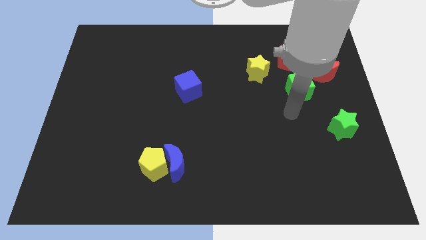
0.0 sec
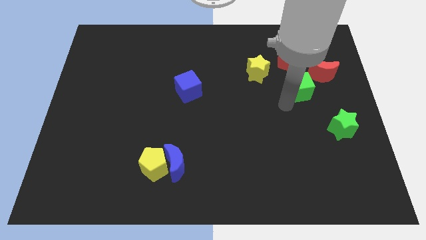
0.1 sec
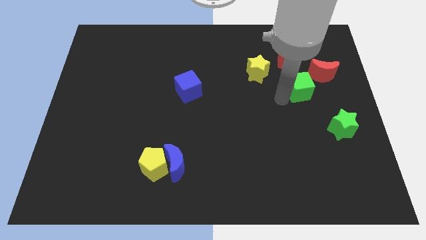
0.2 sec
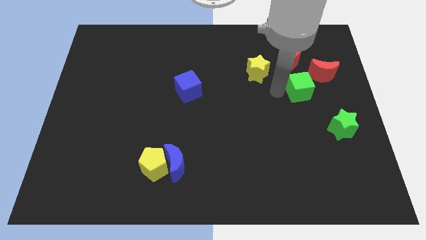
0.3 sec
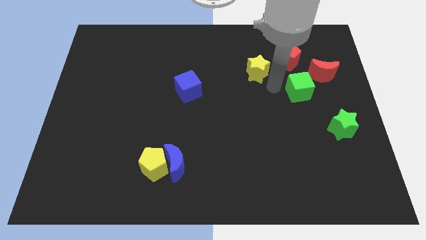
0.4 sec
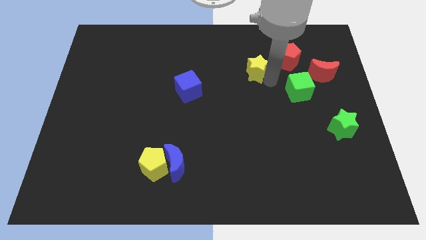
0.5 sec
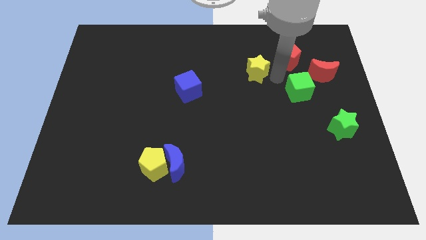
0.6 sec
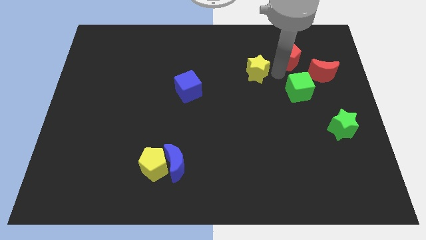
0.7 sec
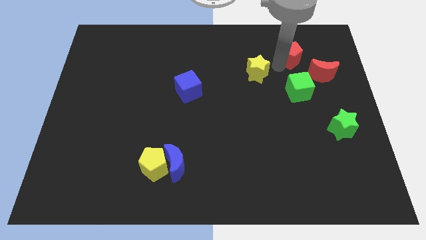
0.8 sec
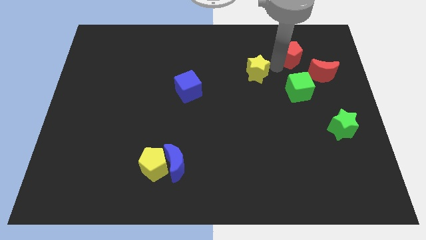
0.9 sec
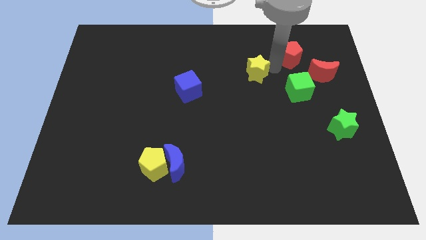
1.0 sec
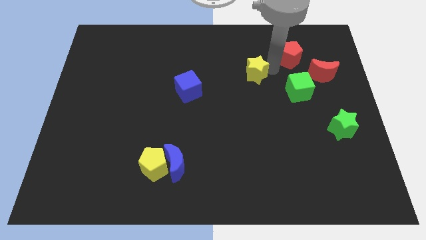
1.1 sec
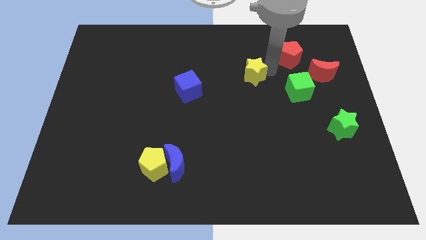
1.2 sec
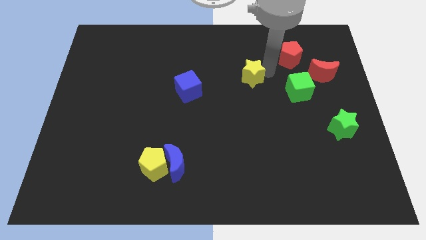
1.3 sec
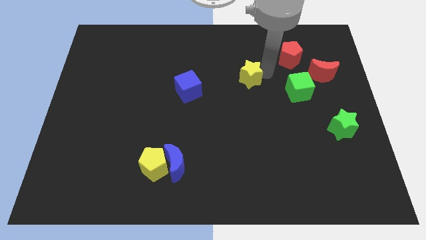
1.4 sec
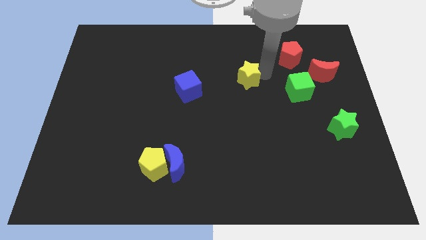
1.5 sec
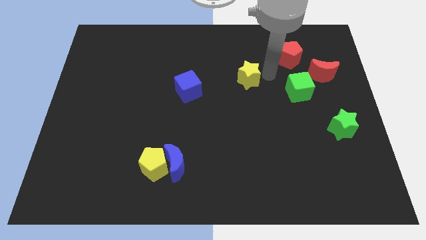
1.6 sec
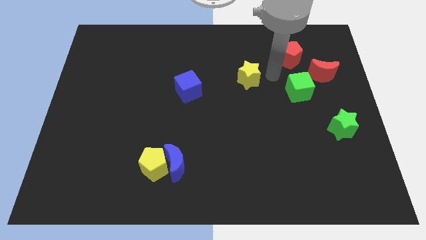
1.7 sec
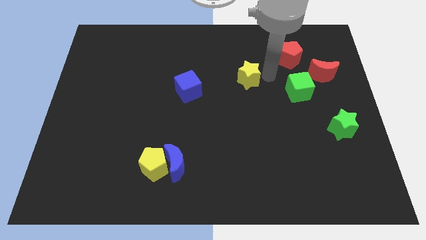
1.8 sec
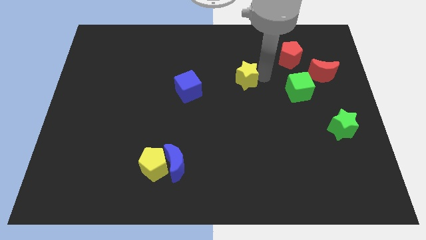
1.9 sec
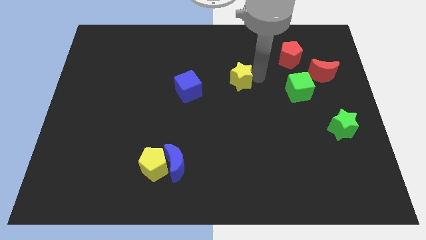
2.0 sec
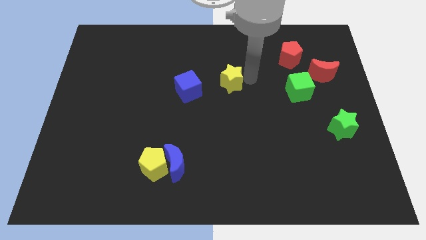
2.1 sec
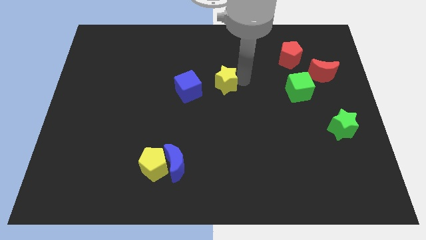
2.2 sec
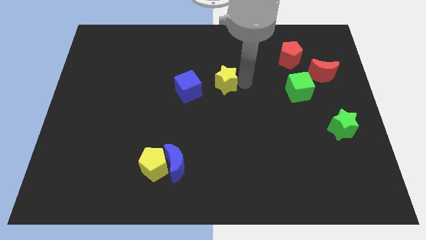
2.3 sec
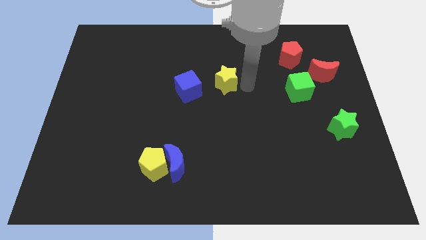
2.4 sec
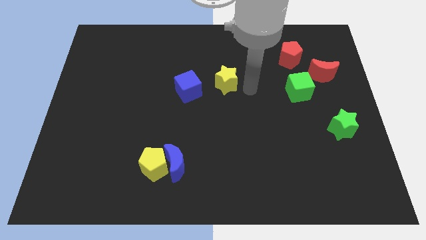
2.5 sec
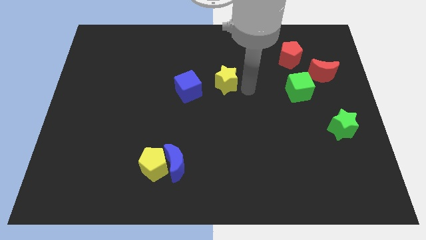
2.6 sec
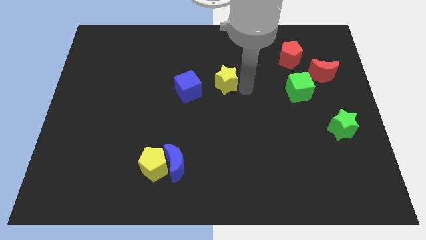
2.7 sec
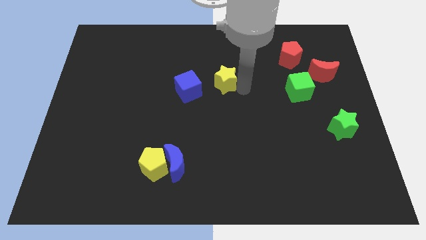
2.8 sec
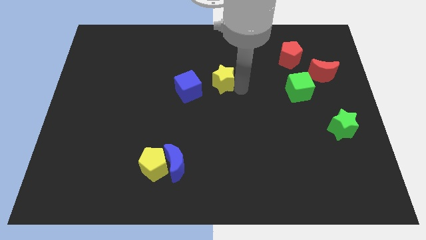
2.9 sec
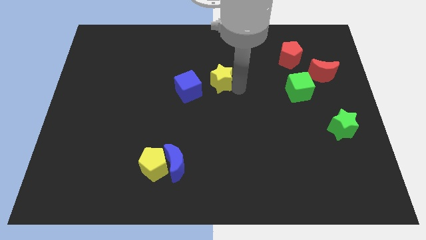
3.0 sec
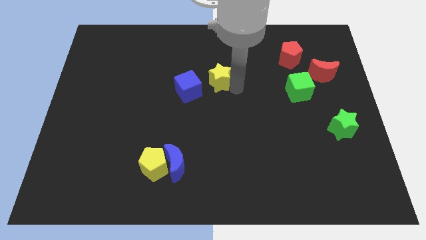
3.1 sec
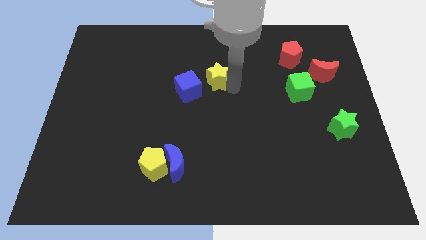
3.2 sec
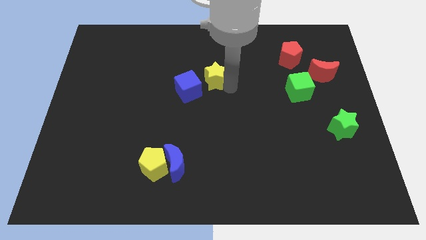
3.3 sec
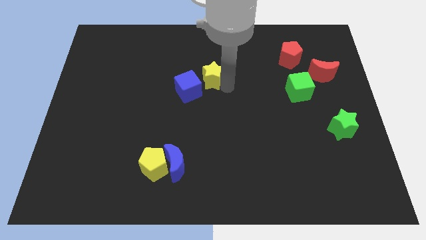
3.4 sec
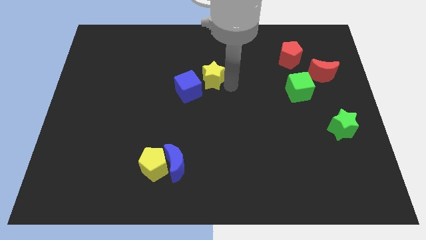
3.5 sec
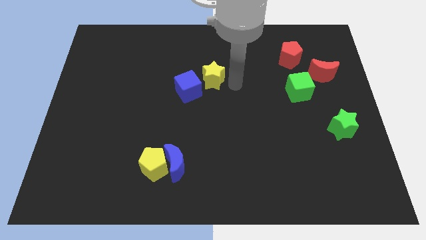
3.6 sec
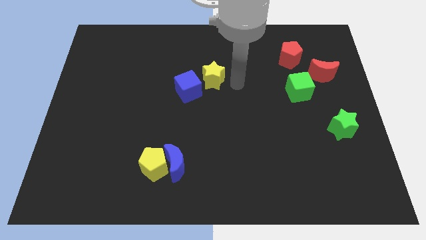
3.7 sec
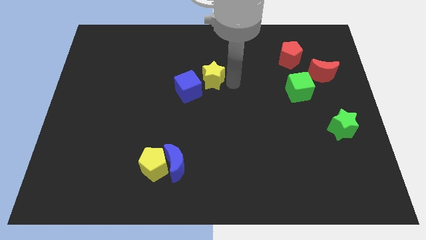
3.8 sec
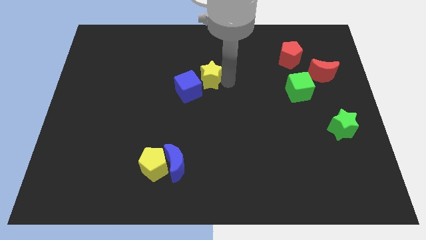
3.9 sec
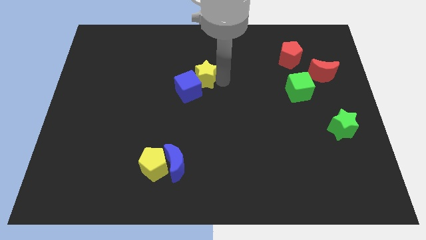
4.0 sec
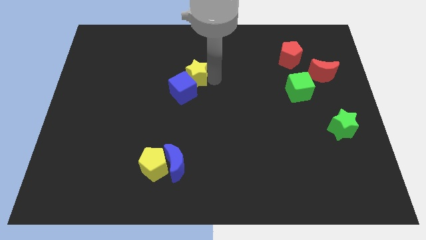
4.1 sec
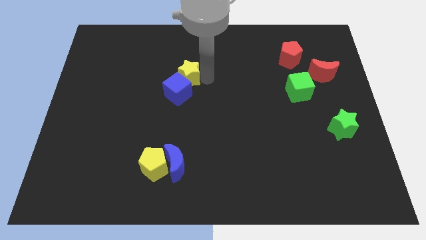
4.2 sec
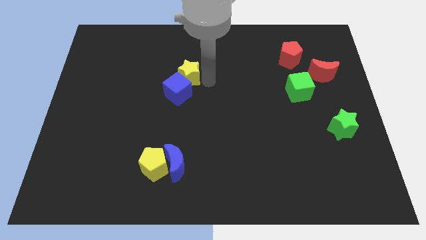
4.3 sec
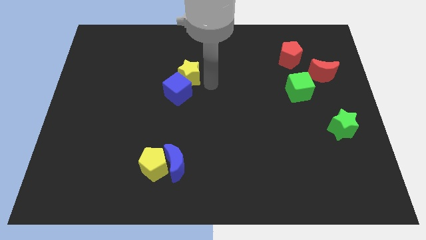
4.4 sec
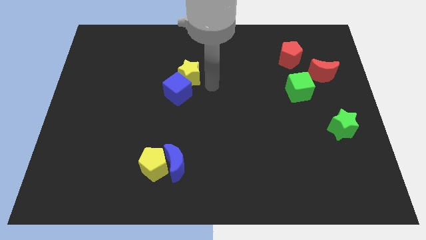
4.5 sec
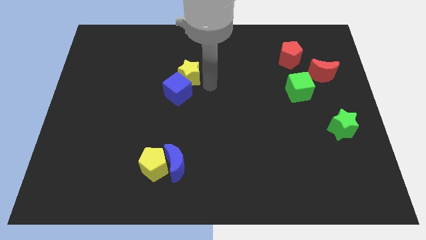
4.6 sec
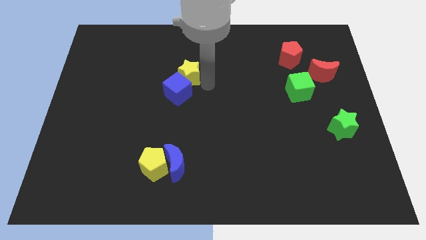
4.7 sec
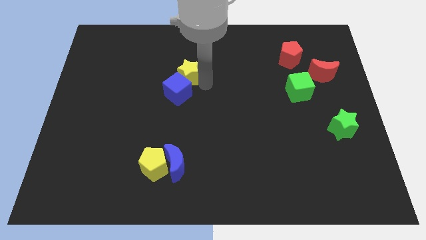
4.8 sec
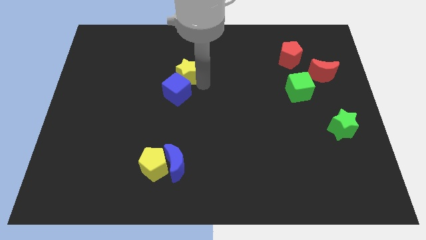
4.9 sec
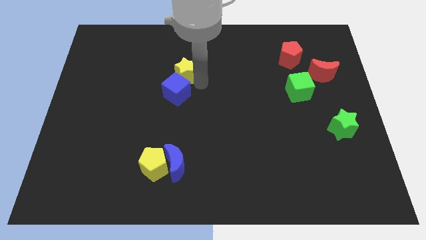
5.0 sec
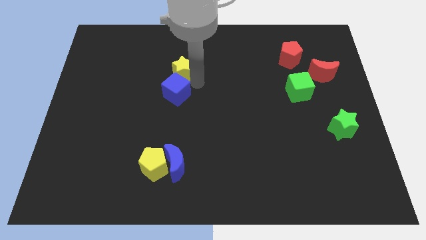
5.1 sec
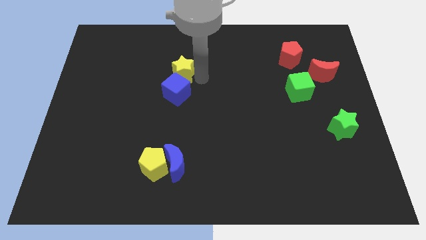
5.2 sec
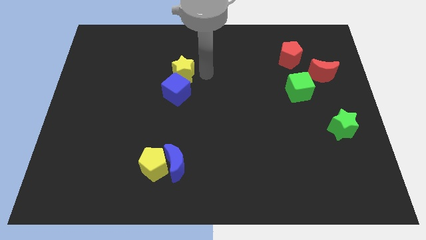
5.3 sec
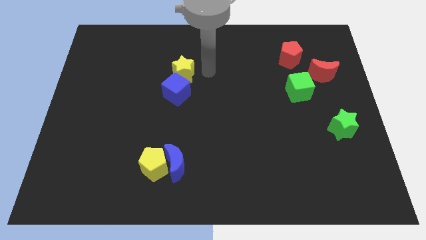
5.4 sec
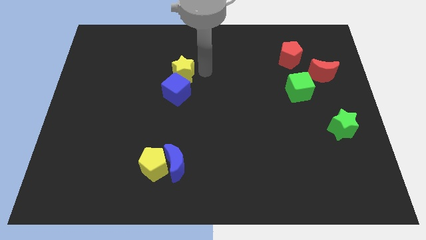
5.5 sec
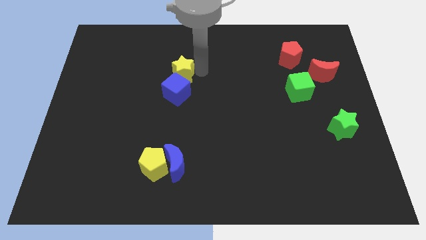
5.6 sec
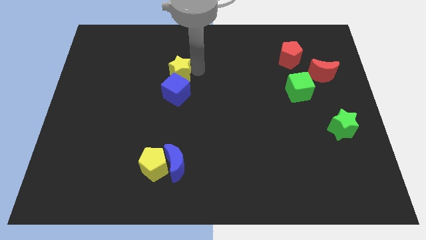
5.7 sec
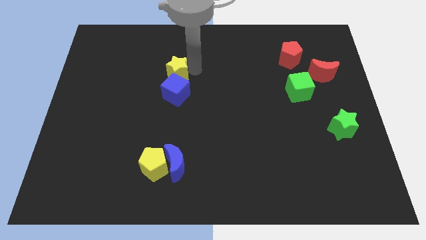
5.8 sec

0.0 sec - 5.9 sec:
move the yellow star left

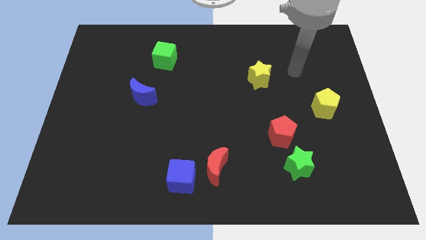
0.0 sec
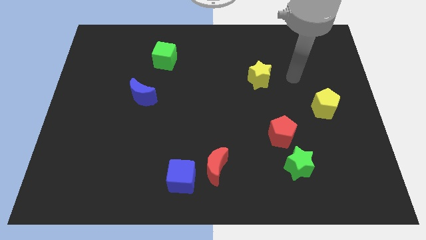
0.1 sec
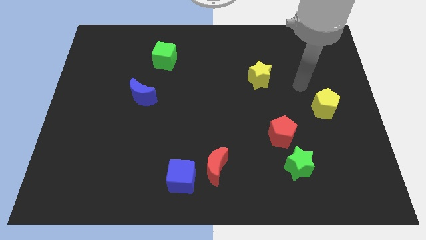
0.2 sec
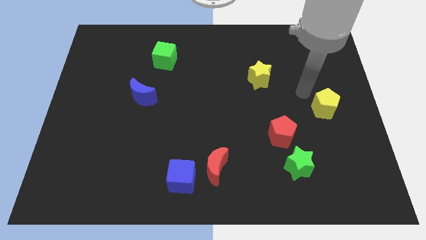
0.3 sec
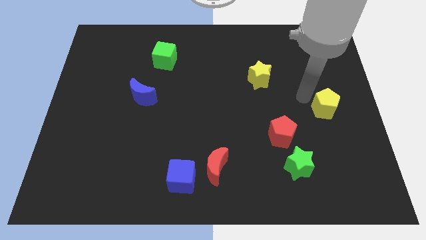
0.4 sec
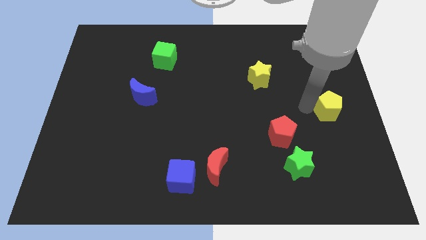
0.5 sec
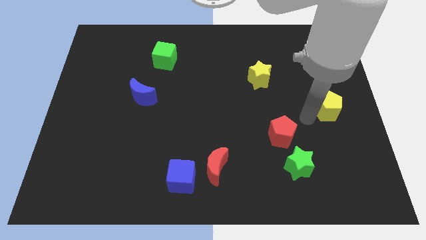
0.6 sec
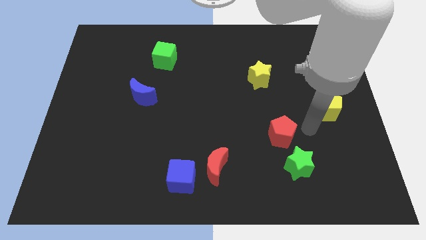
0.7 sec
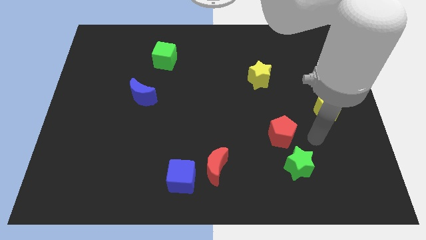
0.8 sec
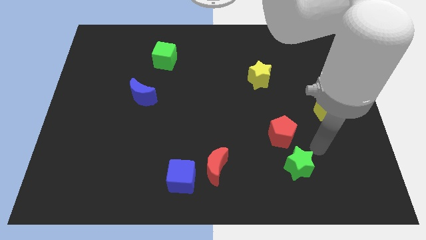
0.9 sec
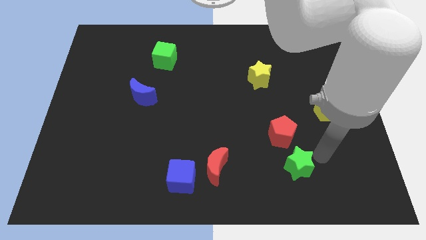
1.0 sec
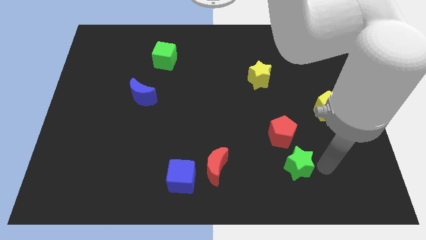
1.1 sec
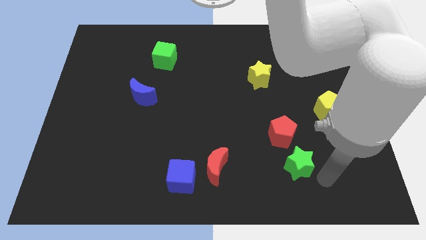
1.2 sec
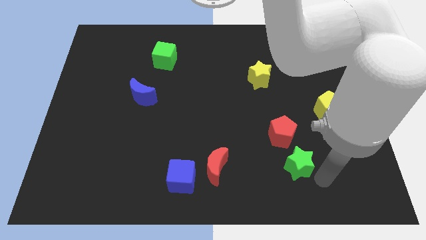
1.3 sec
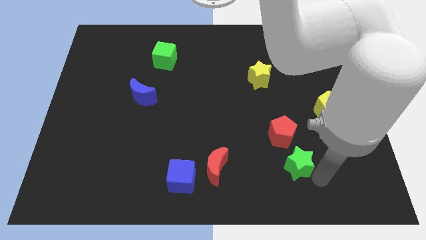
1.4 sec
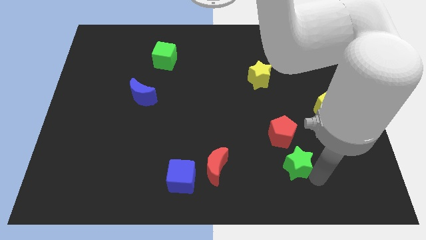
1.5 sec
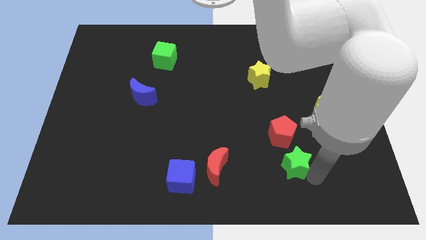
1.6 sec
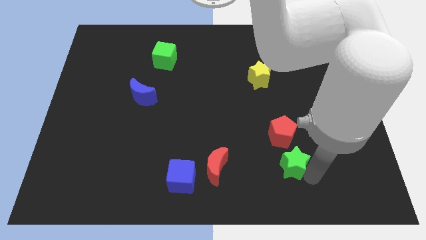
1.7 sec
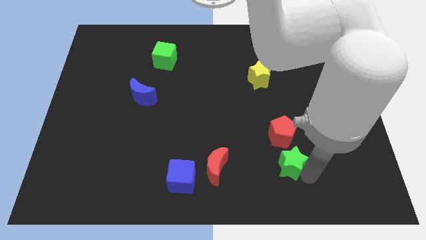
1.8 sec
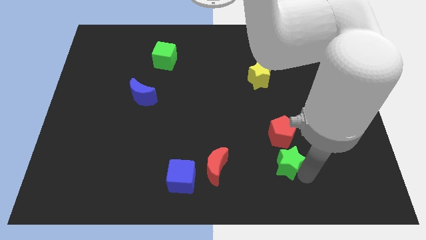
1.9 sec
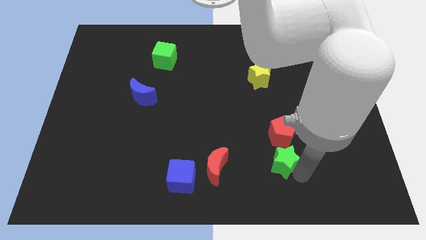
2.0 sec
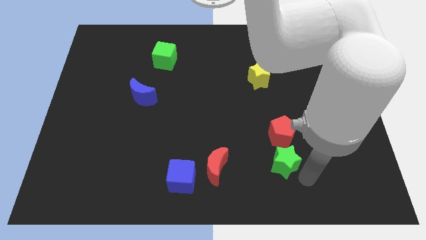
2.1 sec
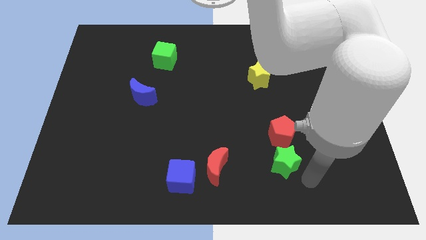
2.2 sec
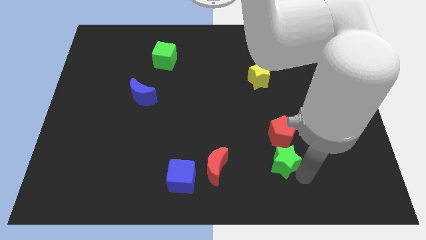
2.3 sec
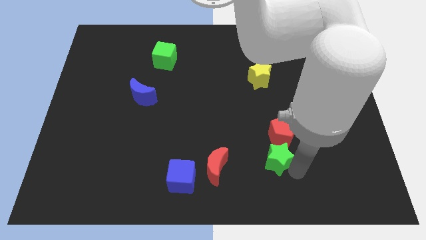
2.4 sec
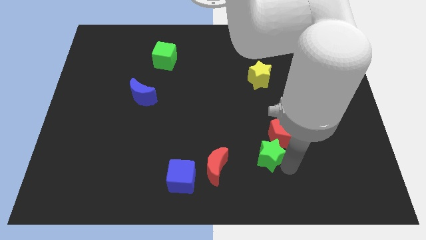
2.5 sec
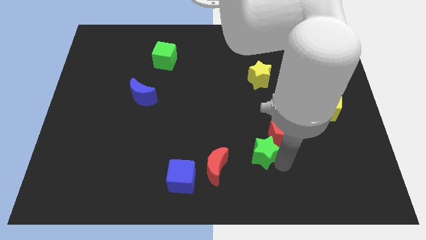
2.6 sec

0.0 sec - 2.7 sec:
slightly push the green star upwards and left
